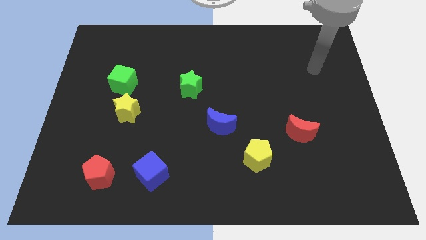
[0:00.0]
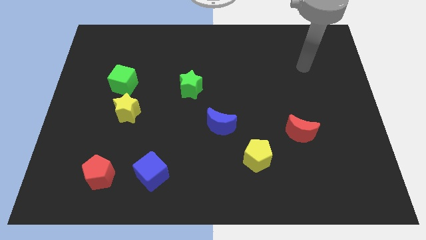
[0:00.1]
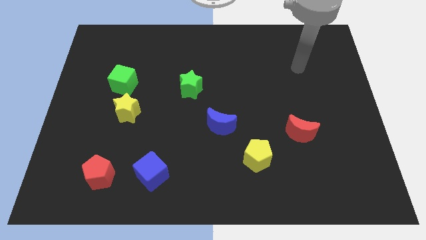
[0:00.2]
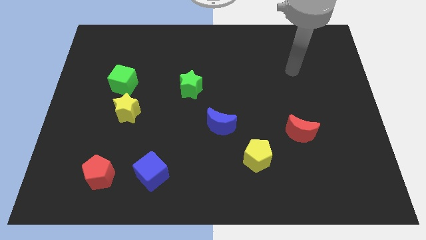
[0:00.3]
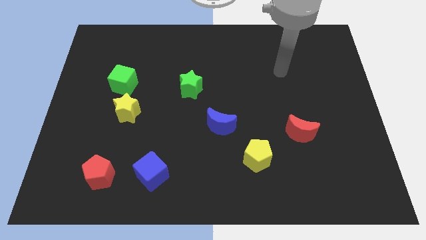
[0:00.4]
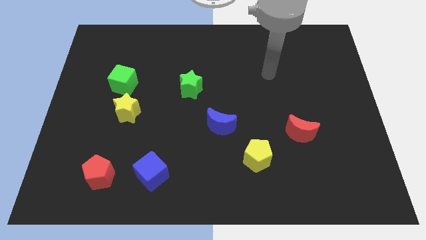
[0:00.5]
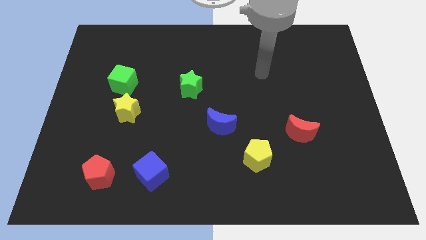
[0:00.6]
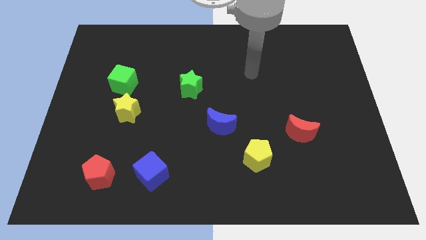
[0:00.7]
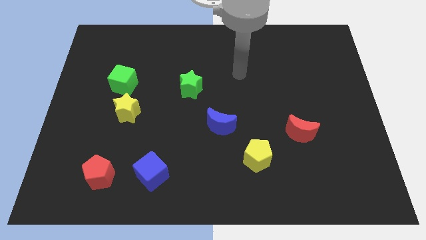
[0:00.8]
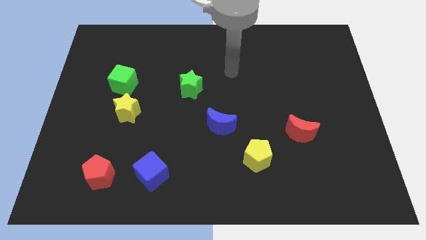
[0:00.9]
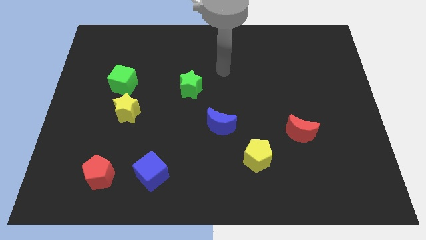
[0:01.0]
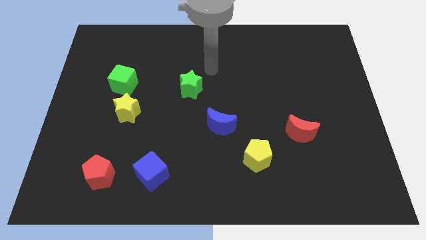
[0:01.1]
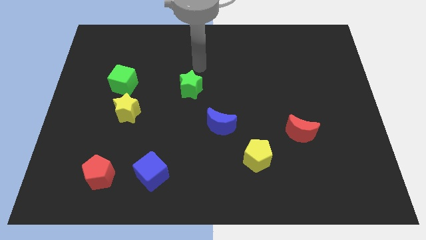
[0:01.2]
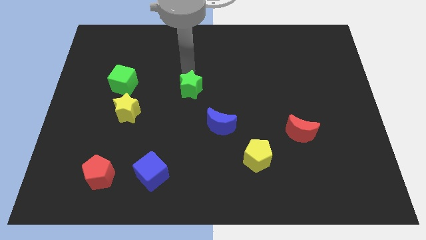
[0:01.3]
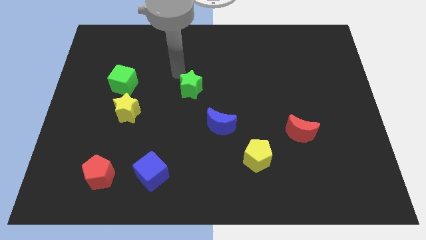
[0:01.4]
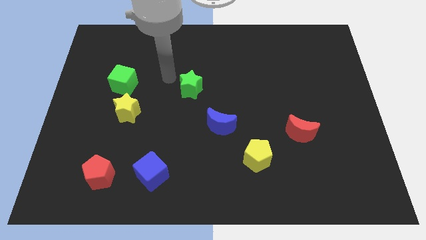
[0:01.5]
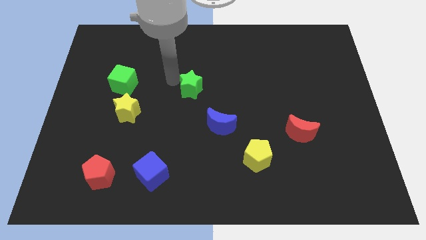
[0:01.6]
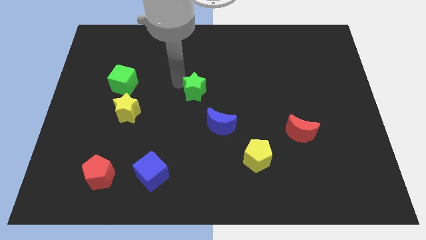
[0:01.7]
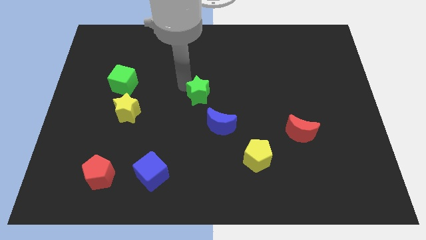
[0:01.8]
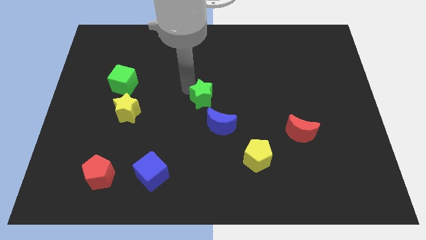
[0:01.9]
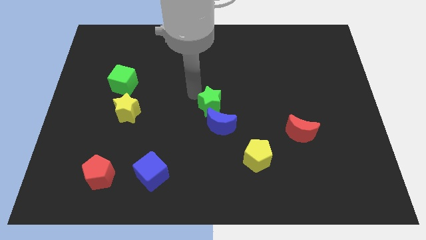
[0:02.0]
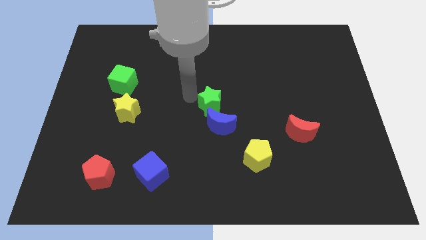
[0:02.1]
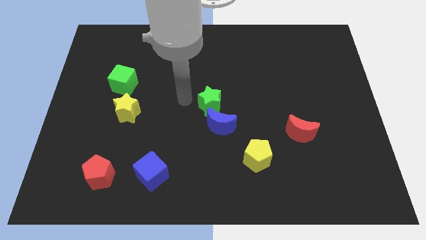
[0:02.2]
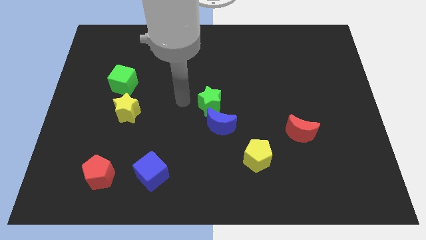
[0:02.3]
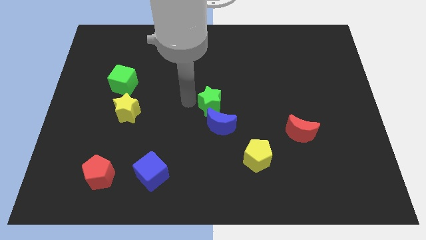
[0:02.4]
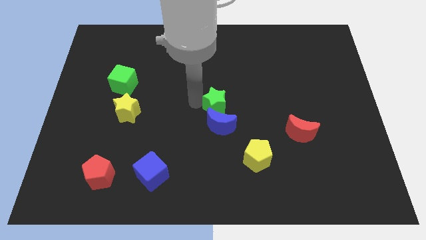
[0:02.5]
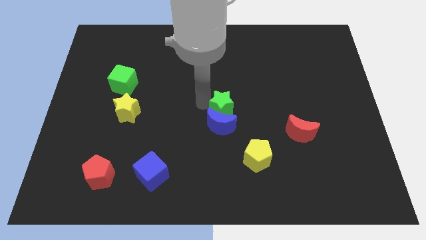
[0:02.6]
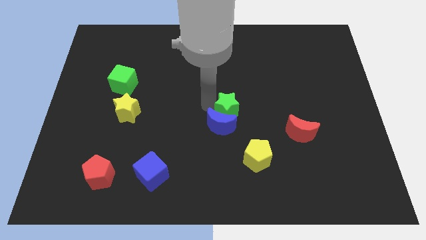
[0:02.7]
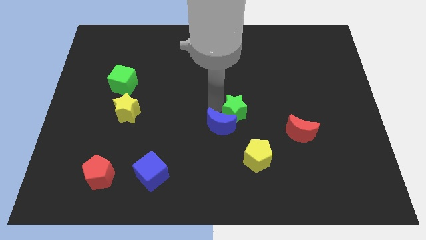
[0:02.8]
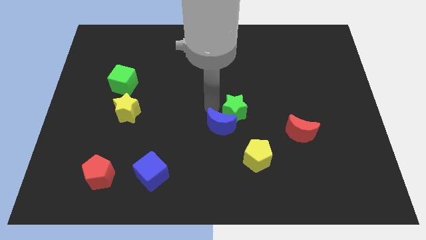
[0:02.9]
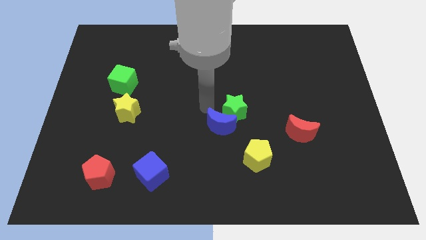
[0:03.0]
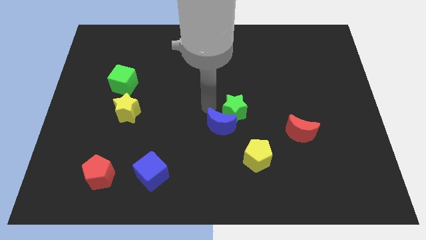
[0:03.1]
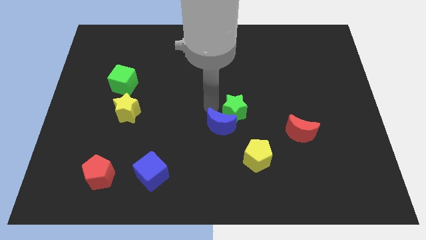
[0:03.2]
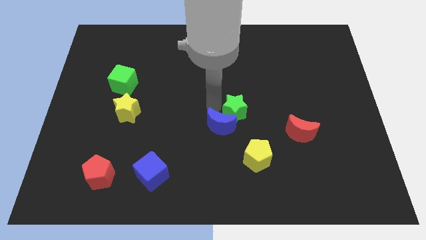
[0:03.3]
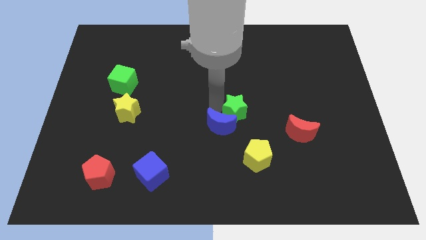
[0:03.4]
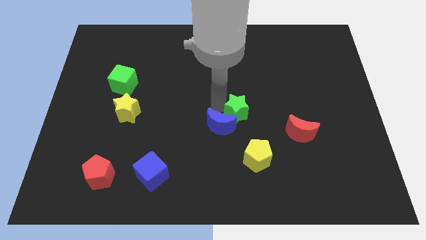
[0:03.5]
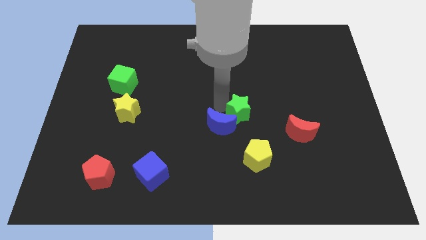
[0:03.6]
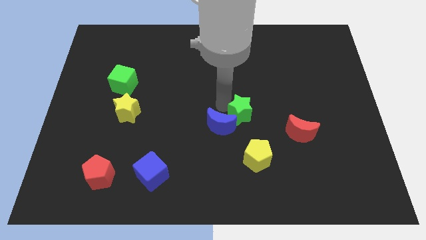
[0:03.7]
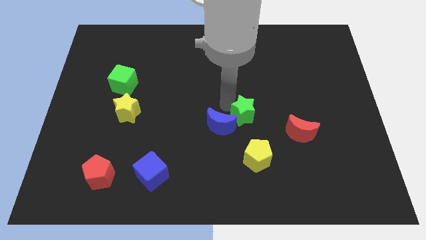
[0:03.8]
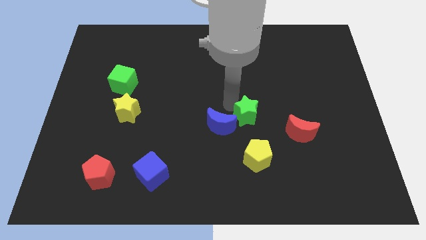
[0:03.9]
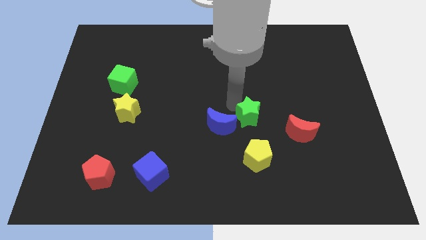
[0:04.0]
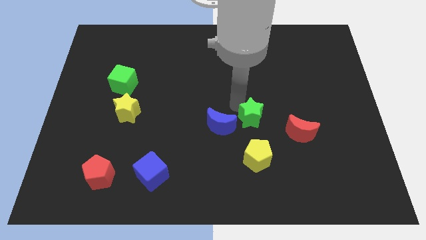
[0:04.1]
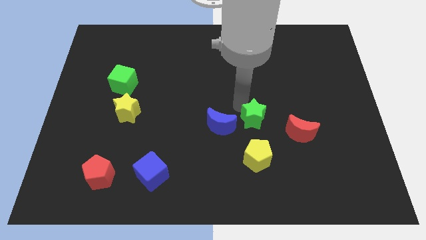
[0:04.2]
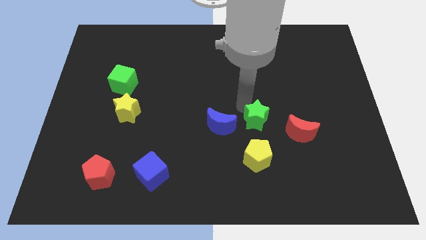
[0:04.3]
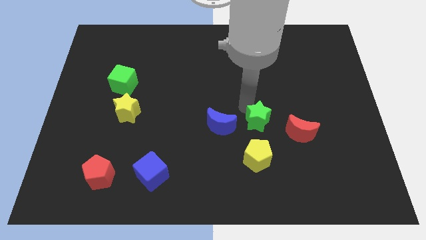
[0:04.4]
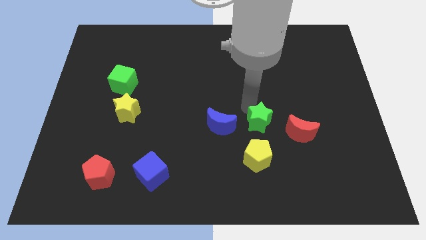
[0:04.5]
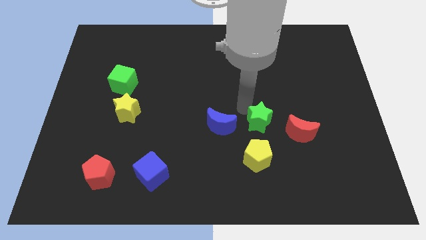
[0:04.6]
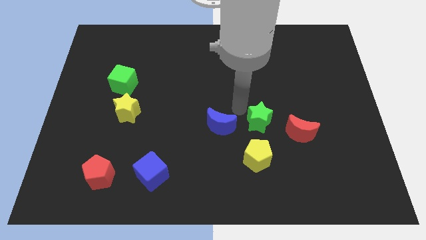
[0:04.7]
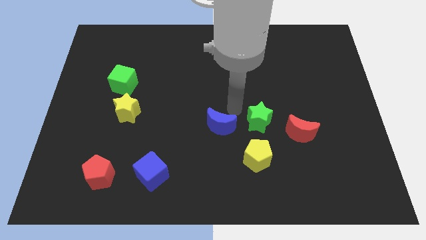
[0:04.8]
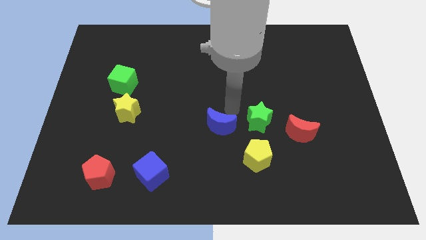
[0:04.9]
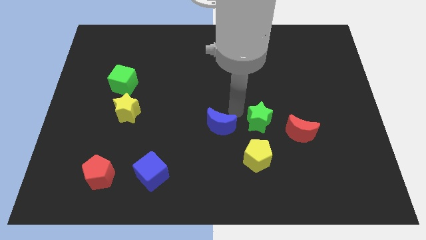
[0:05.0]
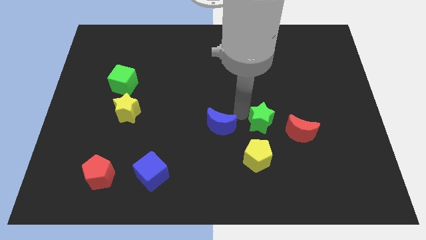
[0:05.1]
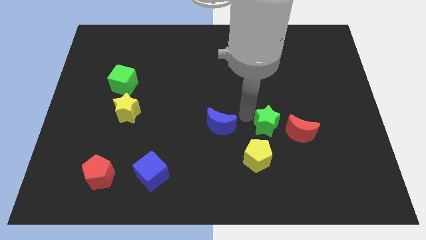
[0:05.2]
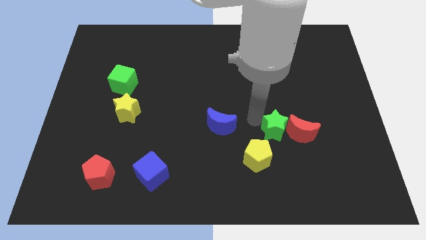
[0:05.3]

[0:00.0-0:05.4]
push the green star towards the red moon

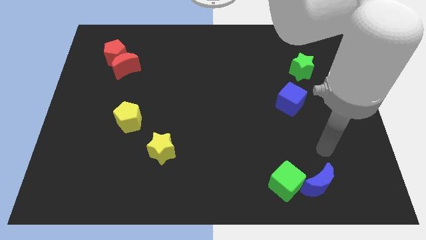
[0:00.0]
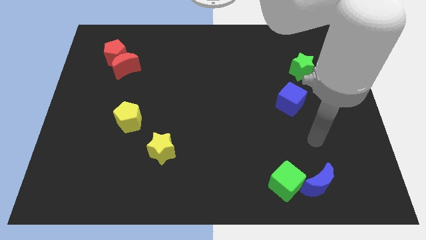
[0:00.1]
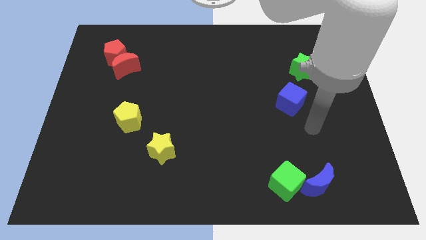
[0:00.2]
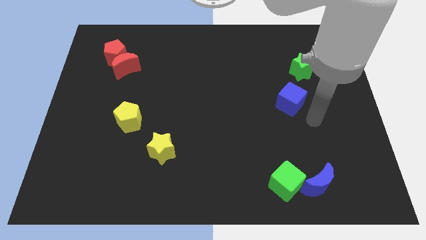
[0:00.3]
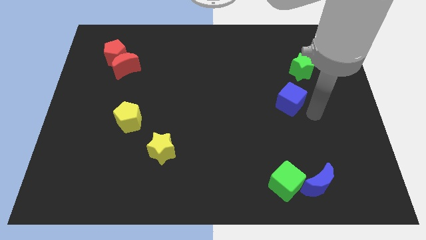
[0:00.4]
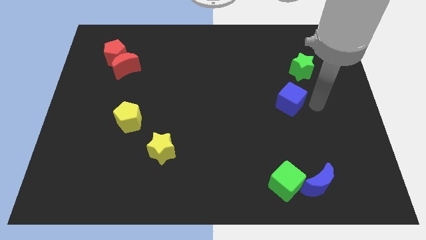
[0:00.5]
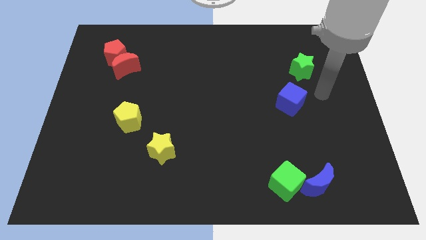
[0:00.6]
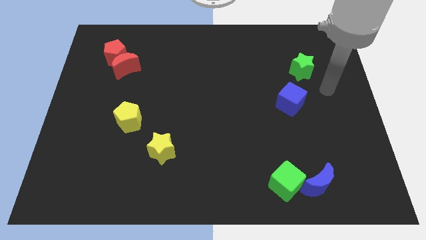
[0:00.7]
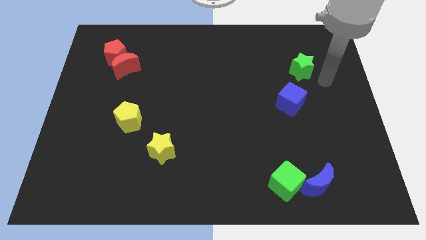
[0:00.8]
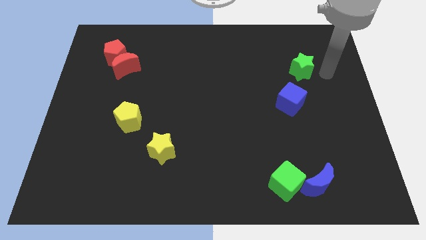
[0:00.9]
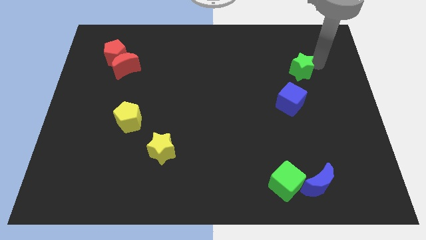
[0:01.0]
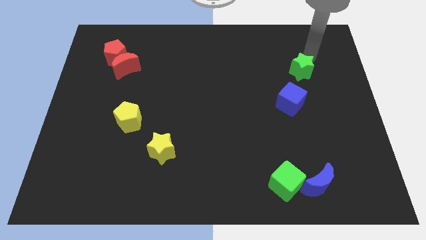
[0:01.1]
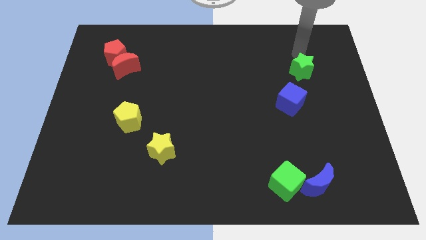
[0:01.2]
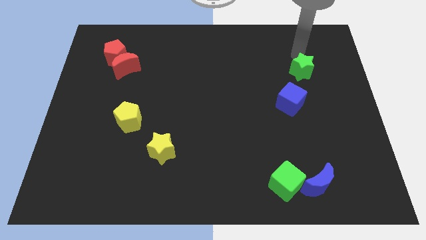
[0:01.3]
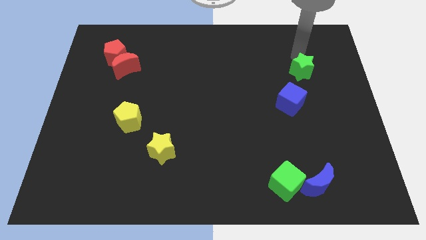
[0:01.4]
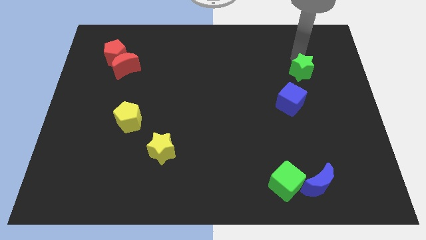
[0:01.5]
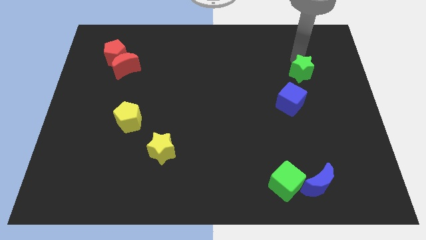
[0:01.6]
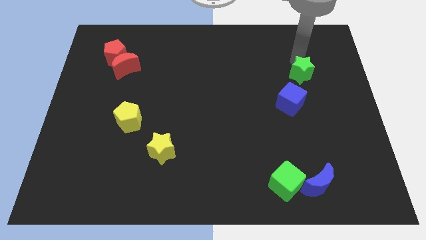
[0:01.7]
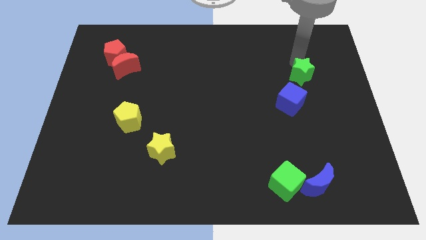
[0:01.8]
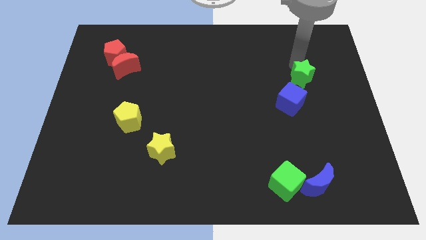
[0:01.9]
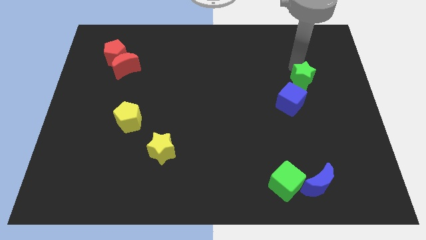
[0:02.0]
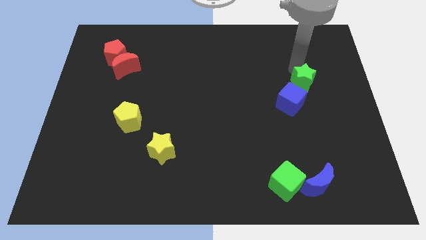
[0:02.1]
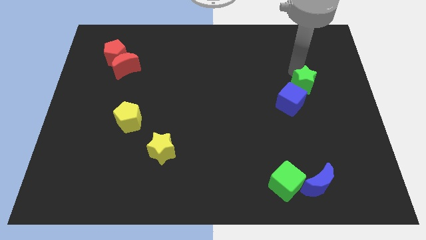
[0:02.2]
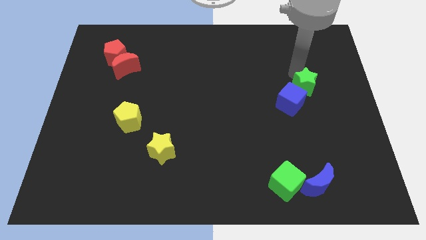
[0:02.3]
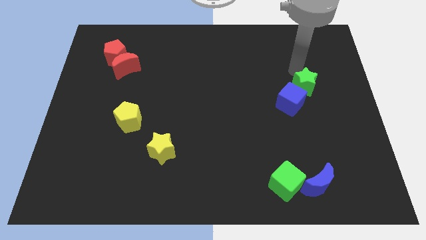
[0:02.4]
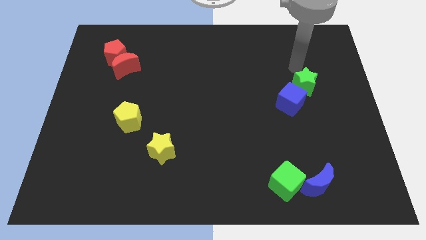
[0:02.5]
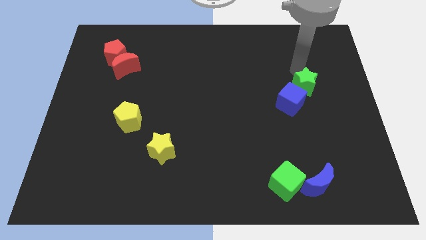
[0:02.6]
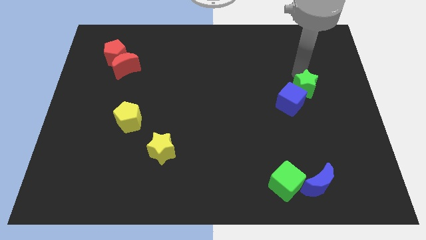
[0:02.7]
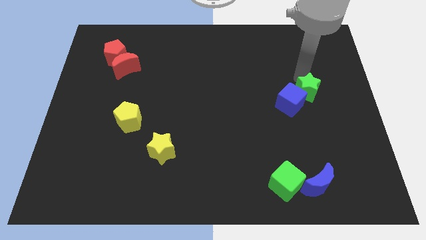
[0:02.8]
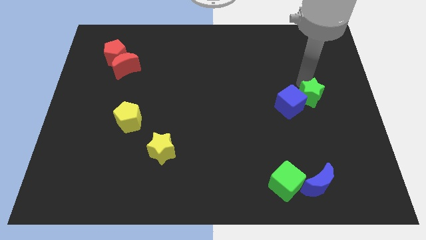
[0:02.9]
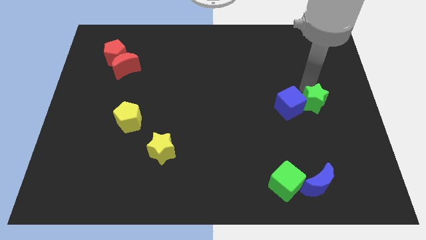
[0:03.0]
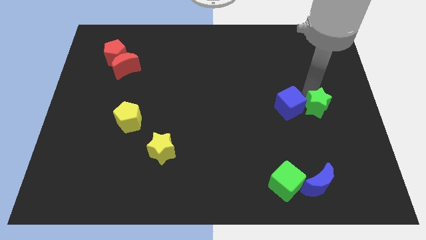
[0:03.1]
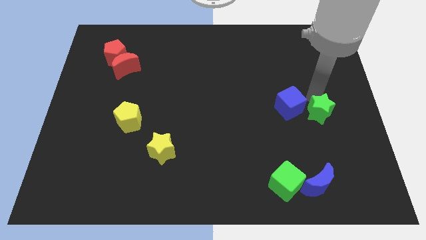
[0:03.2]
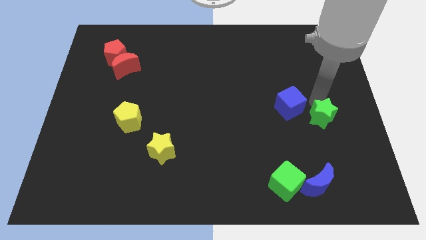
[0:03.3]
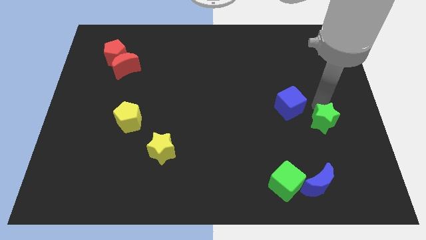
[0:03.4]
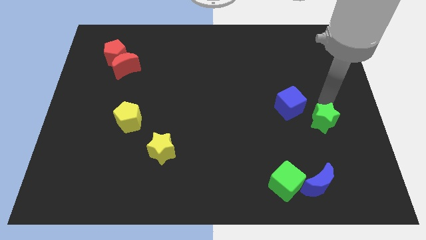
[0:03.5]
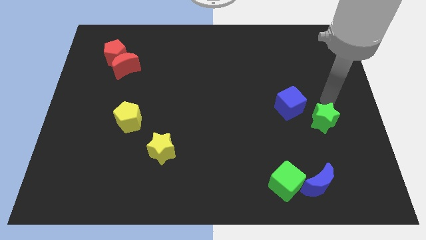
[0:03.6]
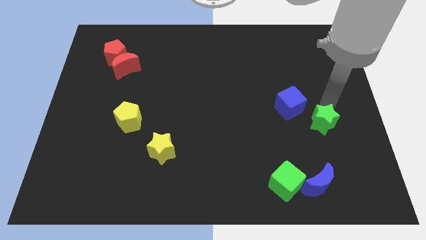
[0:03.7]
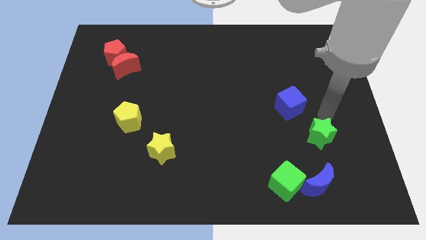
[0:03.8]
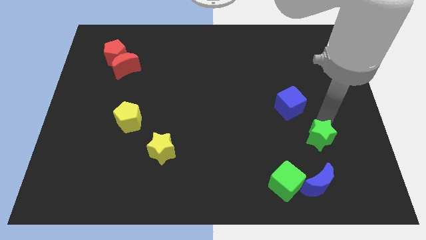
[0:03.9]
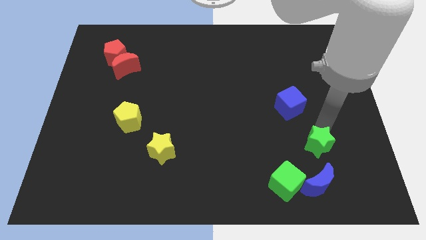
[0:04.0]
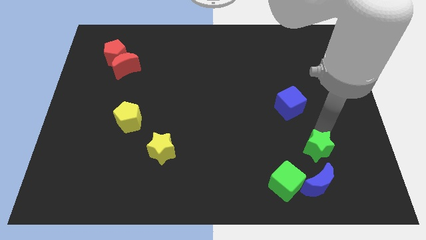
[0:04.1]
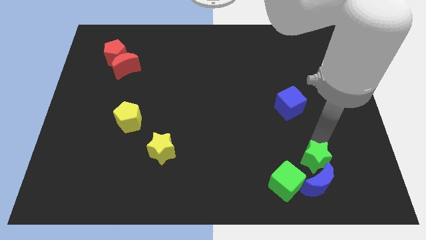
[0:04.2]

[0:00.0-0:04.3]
move the green star close to the blue moon
